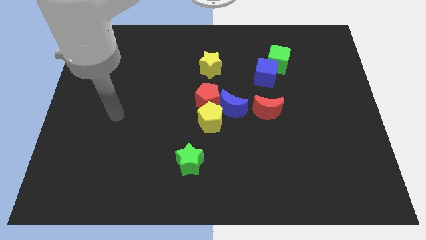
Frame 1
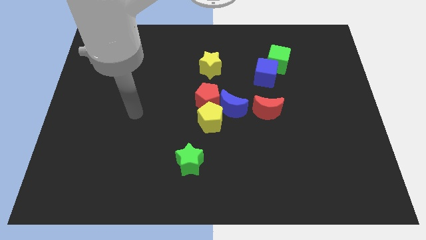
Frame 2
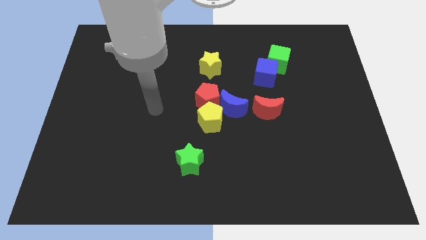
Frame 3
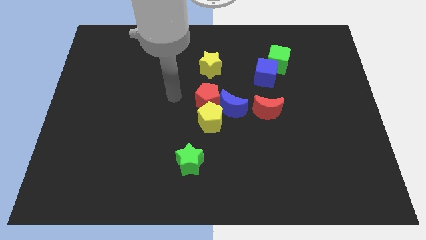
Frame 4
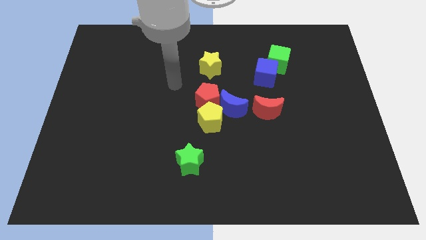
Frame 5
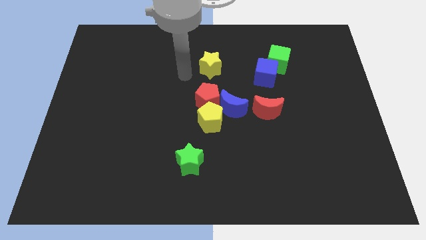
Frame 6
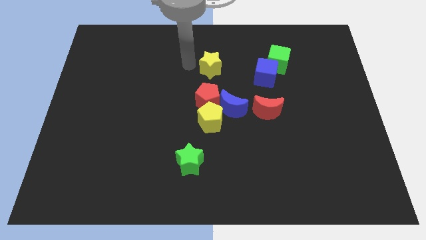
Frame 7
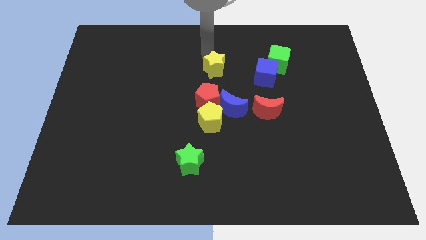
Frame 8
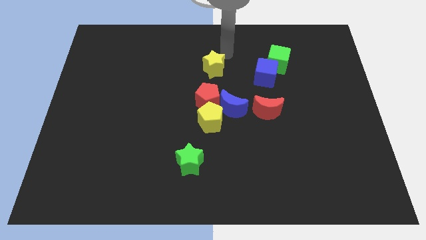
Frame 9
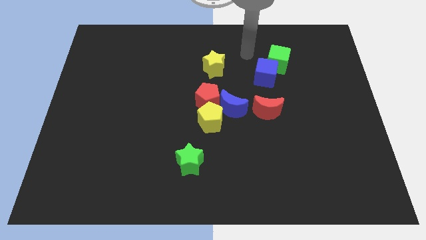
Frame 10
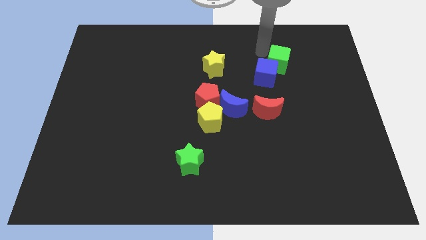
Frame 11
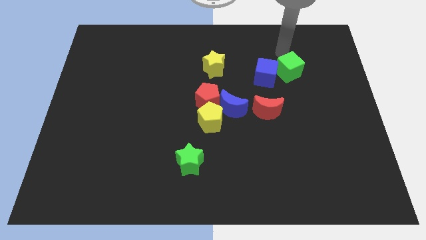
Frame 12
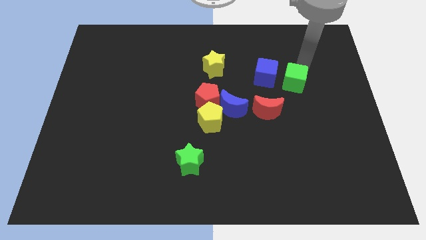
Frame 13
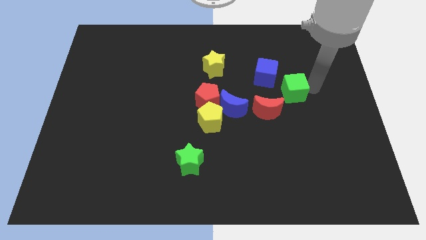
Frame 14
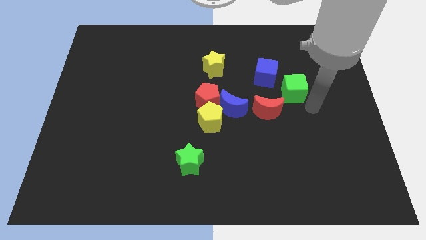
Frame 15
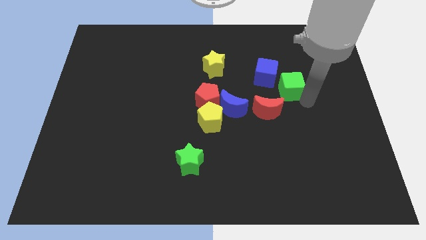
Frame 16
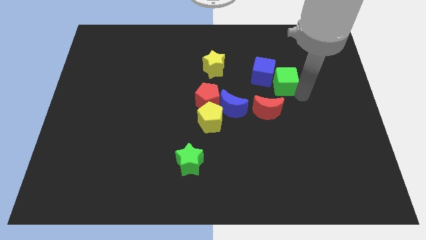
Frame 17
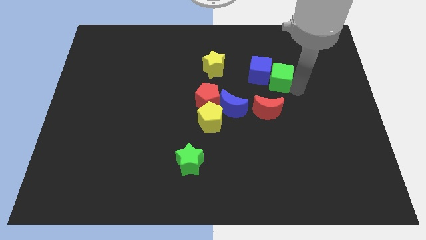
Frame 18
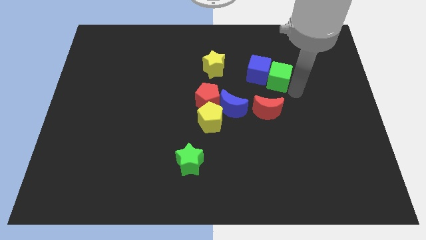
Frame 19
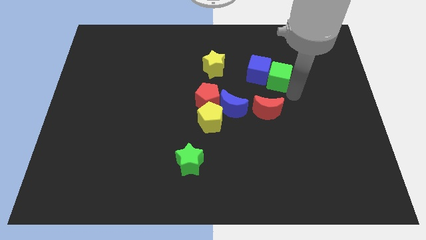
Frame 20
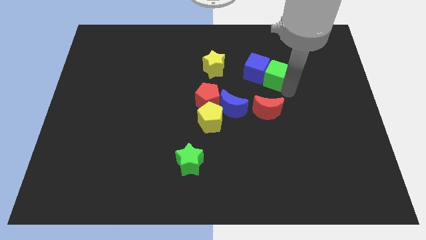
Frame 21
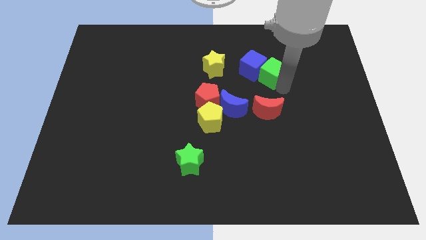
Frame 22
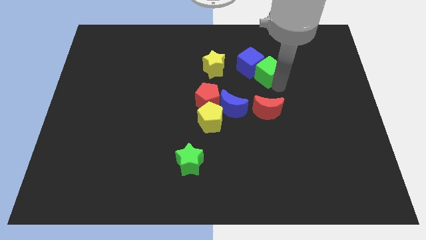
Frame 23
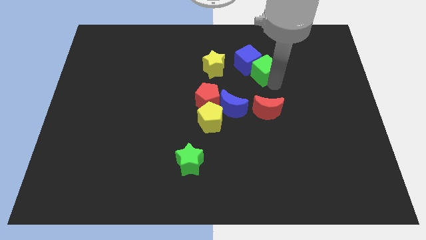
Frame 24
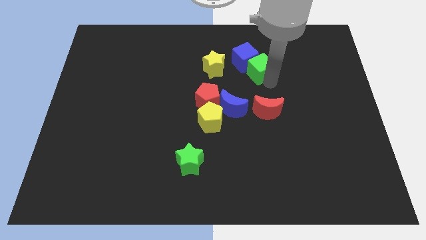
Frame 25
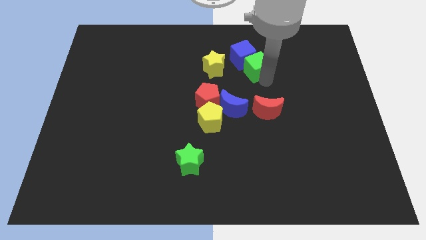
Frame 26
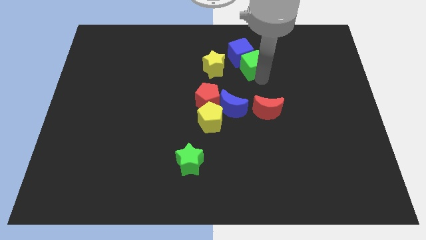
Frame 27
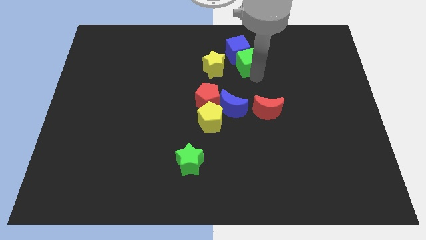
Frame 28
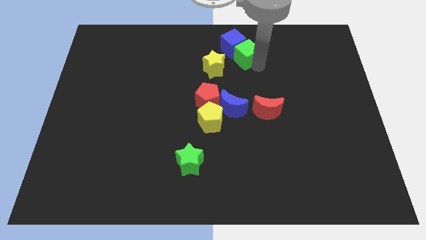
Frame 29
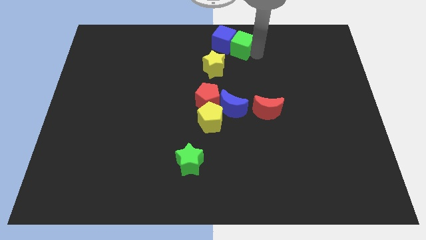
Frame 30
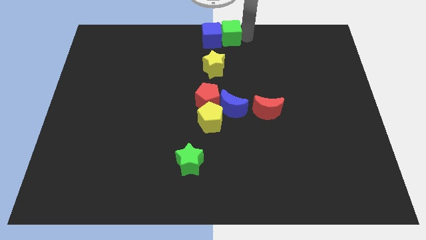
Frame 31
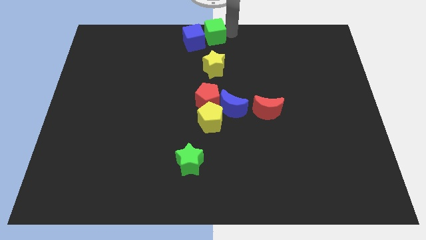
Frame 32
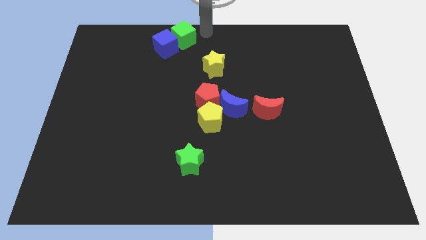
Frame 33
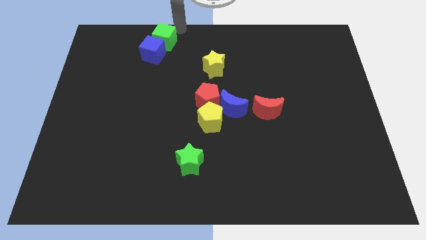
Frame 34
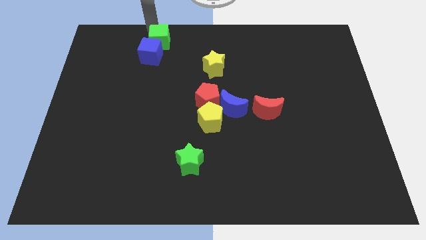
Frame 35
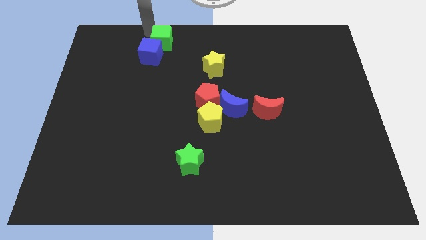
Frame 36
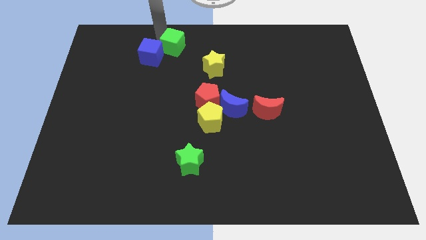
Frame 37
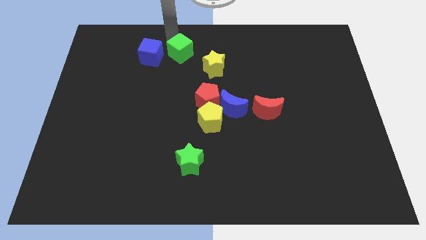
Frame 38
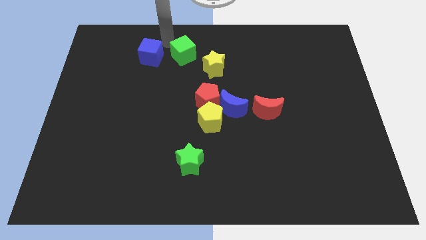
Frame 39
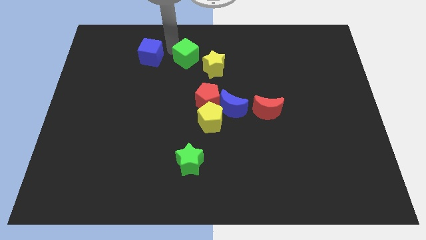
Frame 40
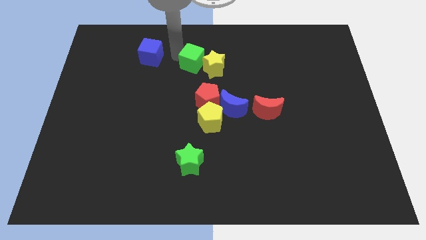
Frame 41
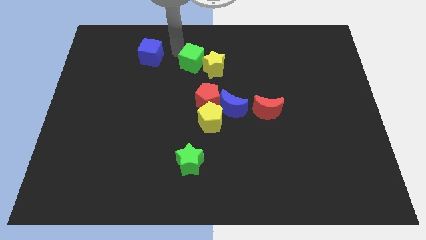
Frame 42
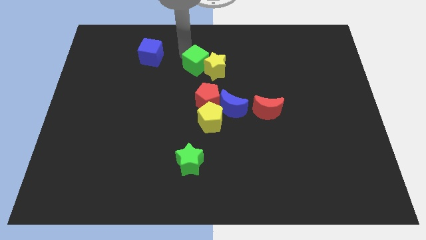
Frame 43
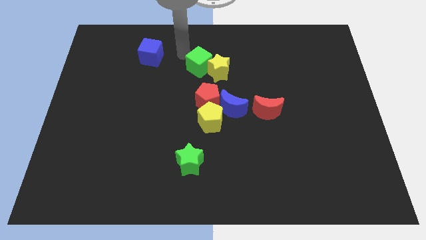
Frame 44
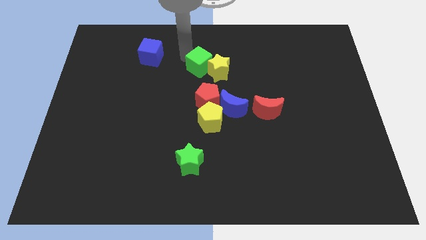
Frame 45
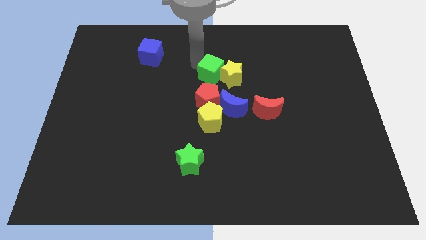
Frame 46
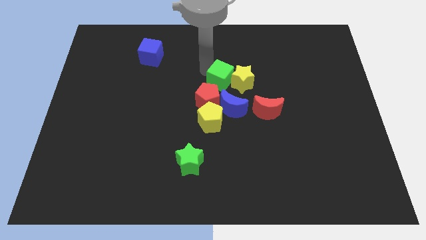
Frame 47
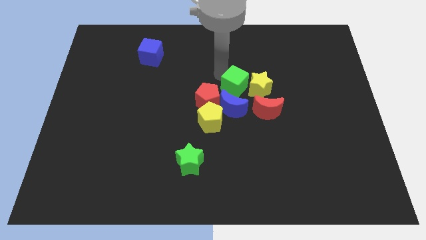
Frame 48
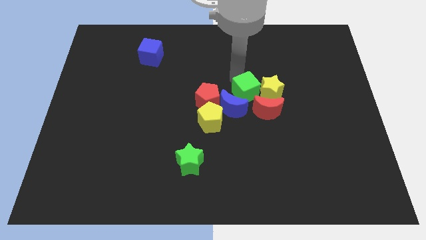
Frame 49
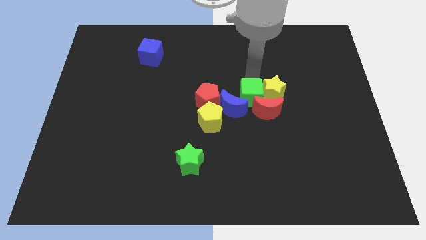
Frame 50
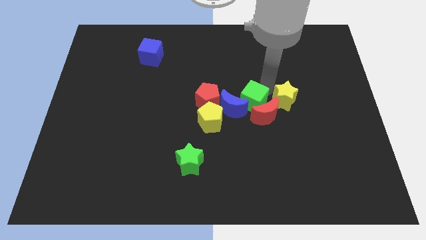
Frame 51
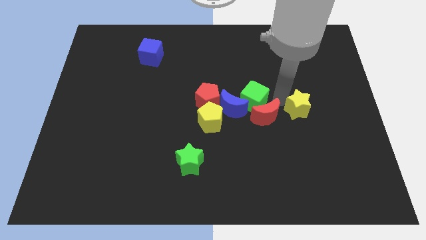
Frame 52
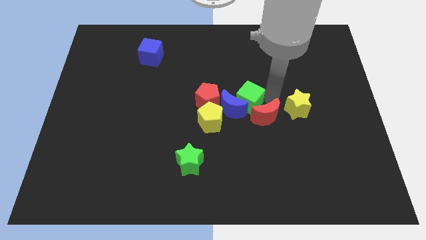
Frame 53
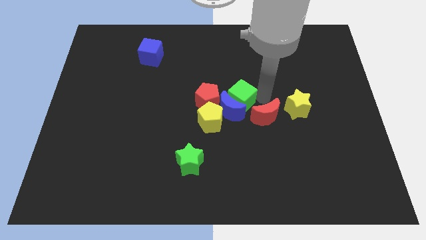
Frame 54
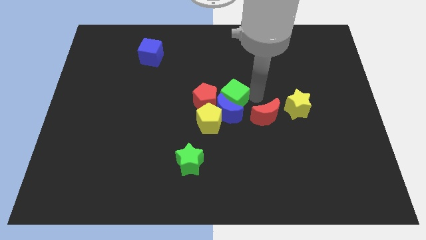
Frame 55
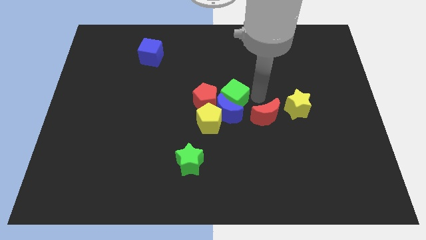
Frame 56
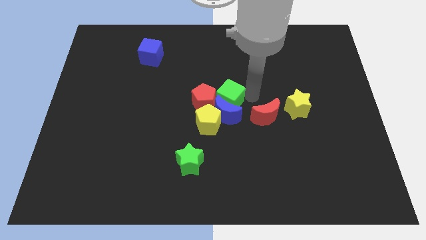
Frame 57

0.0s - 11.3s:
slide the green cube close to the red pentagon

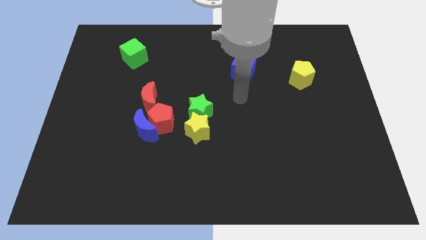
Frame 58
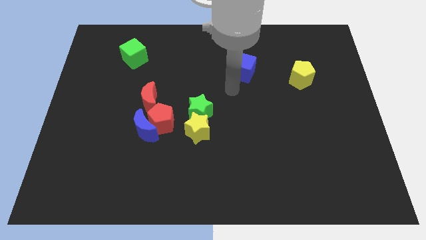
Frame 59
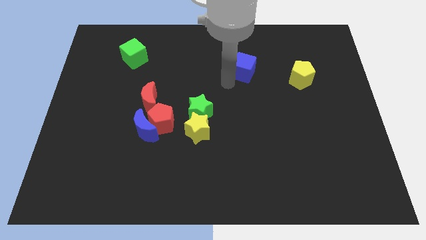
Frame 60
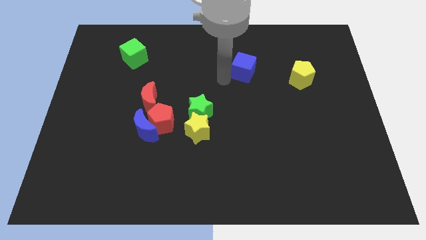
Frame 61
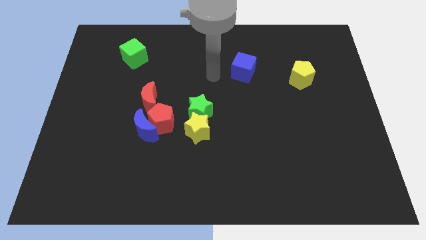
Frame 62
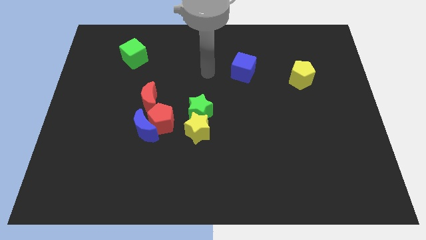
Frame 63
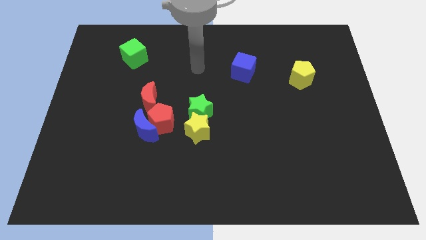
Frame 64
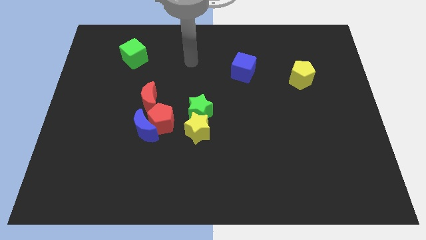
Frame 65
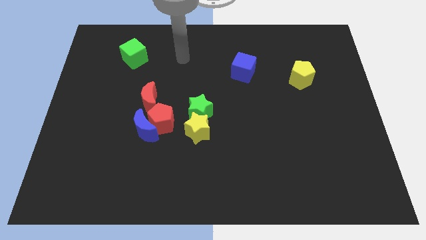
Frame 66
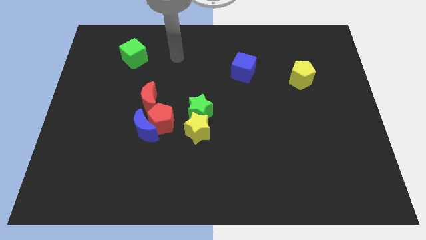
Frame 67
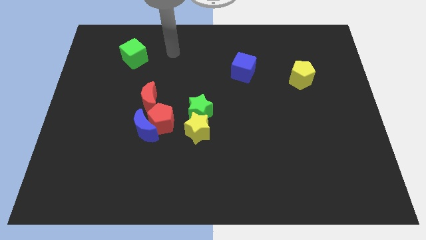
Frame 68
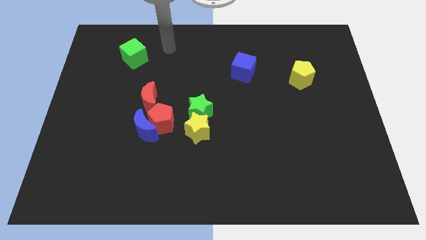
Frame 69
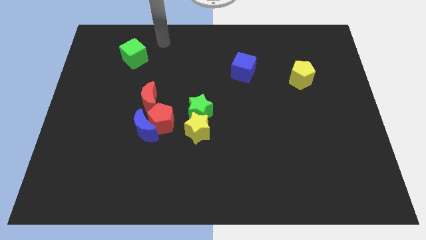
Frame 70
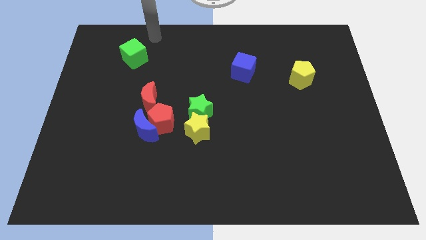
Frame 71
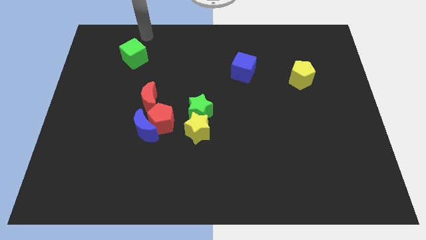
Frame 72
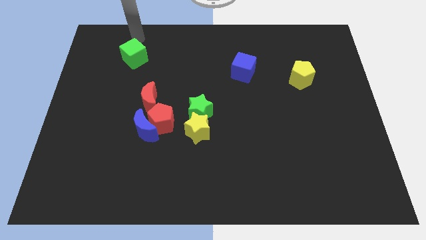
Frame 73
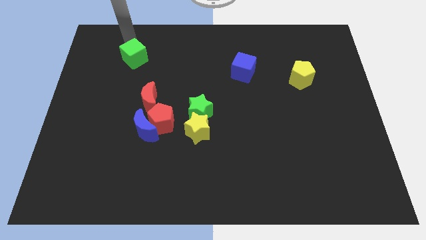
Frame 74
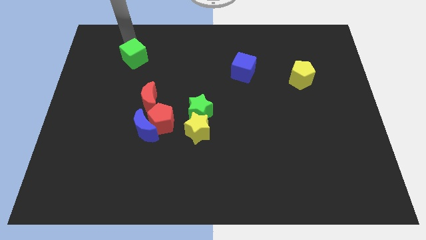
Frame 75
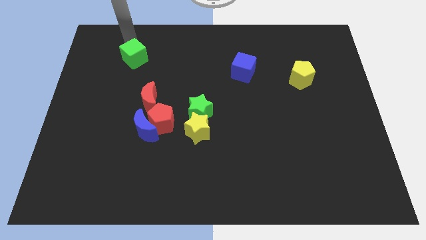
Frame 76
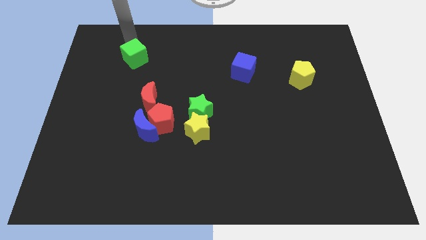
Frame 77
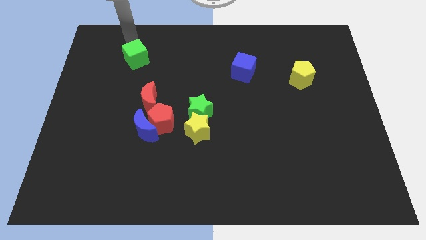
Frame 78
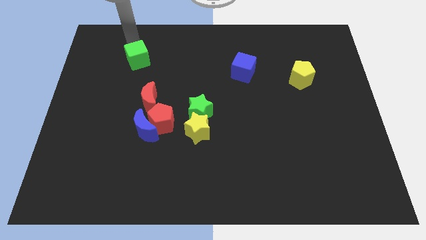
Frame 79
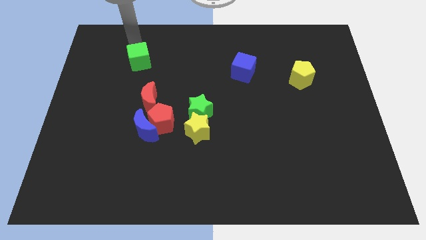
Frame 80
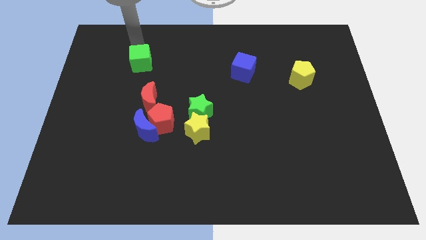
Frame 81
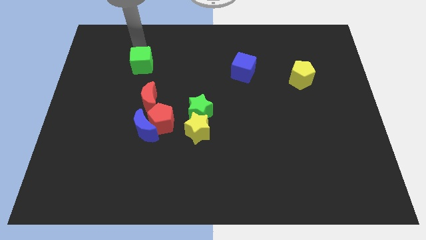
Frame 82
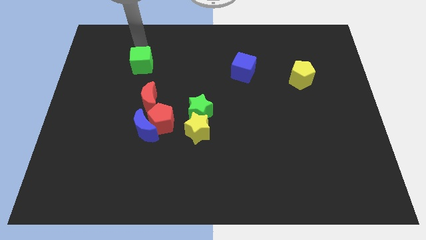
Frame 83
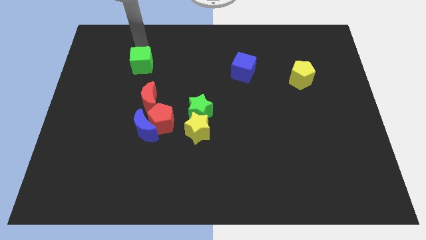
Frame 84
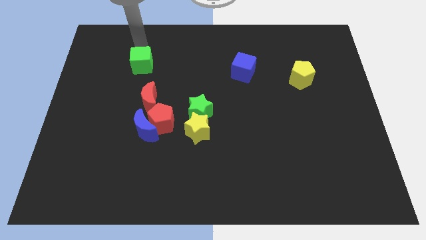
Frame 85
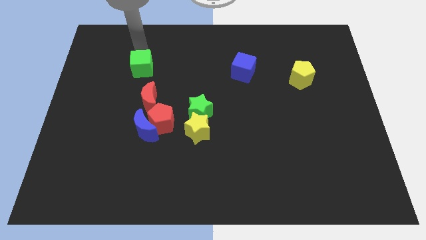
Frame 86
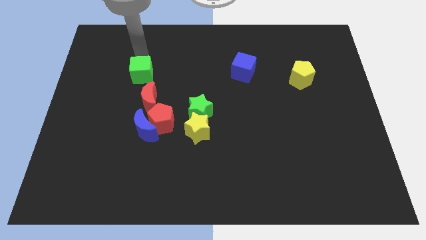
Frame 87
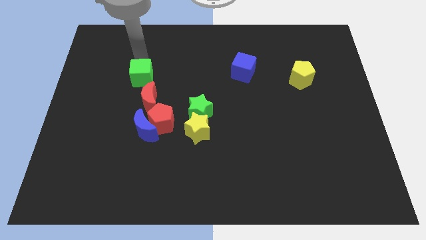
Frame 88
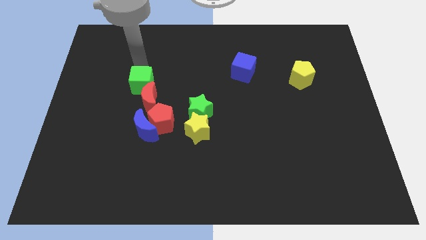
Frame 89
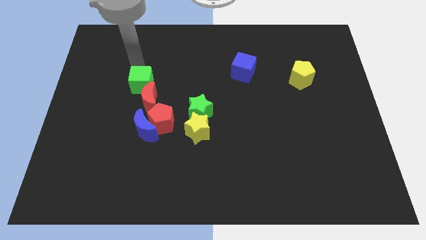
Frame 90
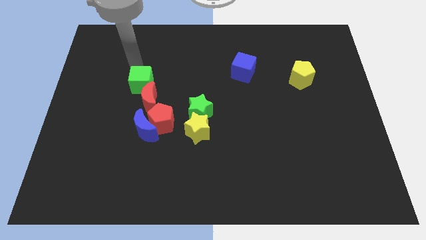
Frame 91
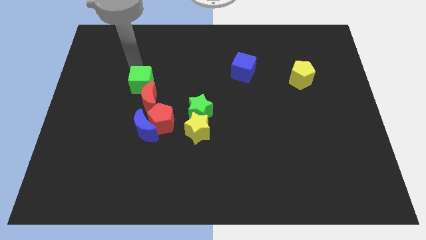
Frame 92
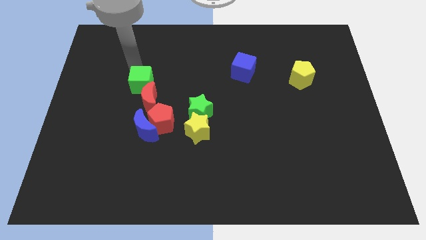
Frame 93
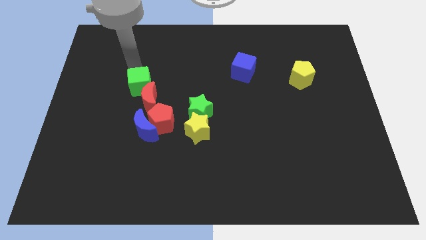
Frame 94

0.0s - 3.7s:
slide the green cube to the red moon
